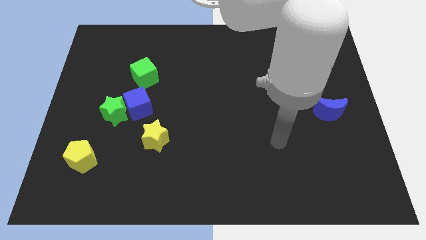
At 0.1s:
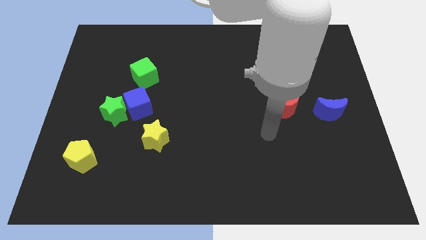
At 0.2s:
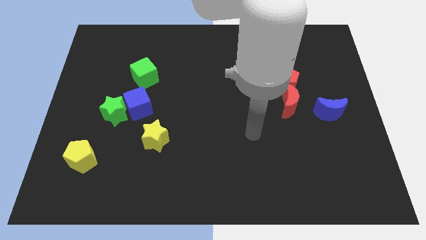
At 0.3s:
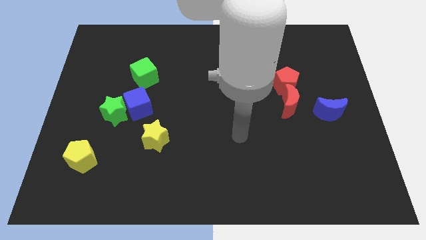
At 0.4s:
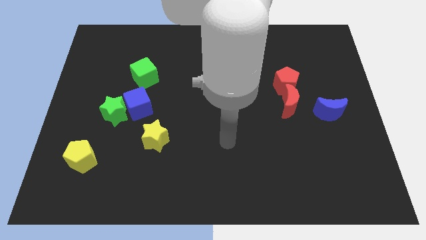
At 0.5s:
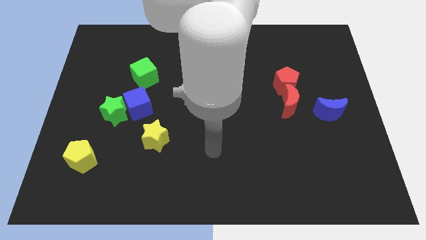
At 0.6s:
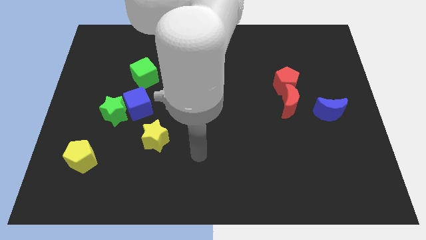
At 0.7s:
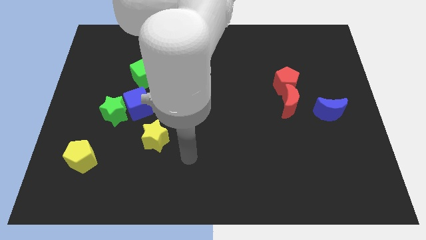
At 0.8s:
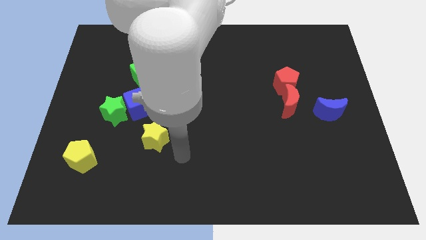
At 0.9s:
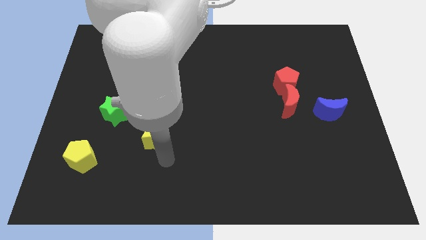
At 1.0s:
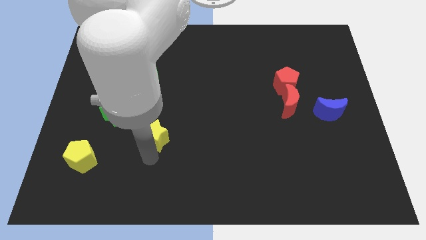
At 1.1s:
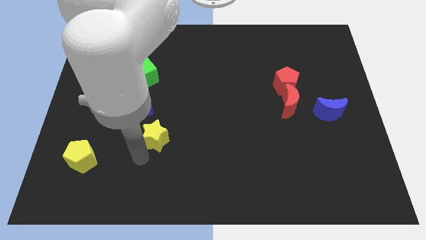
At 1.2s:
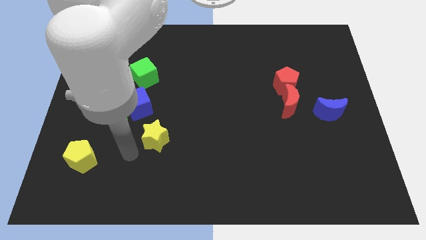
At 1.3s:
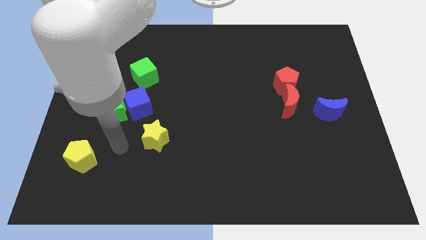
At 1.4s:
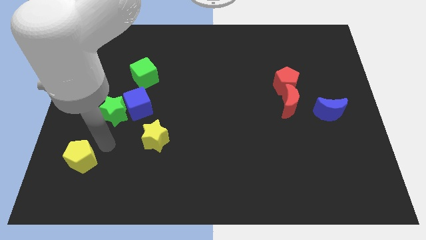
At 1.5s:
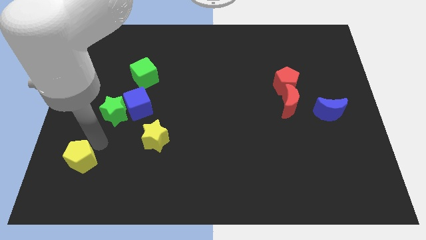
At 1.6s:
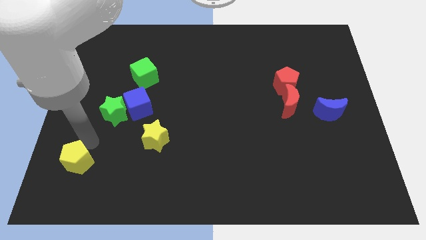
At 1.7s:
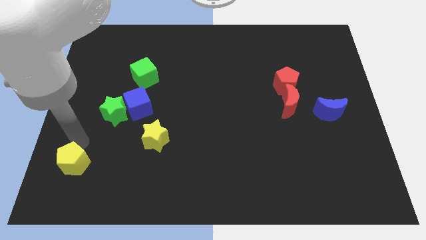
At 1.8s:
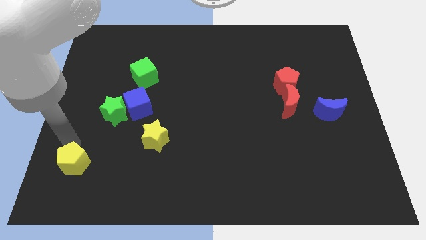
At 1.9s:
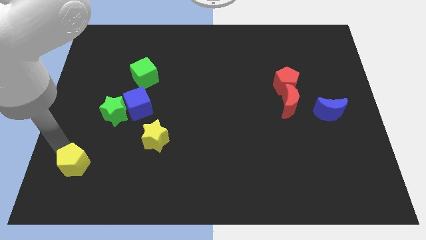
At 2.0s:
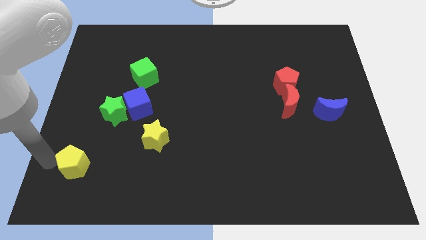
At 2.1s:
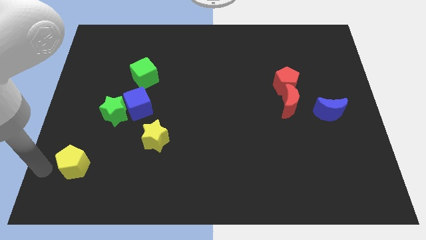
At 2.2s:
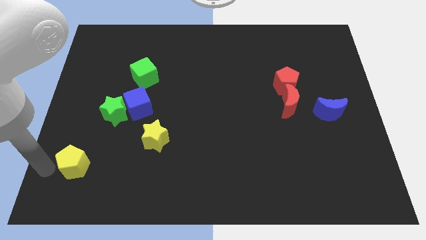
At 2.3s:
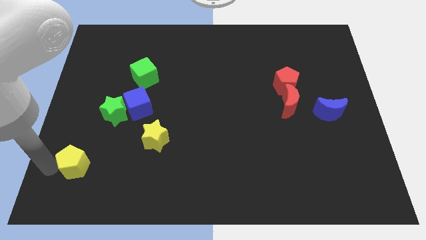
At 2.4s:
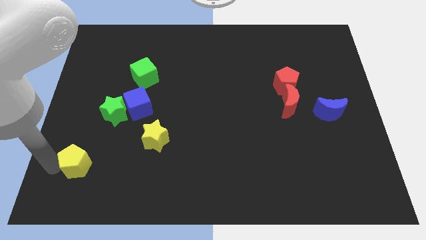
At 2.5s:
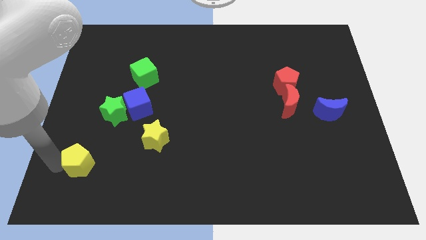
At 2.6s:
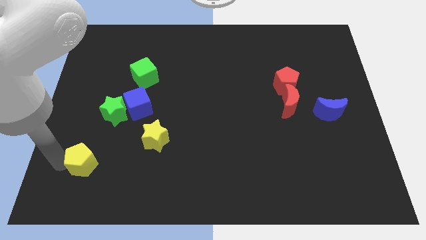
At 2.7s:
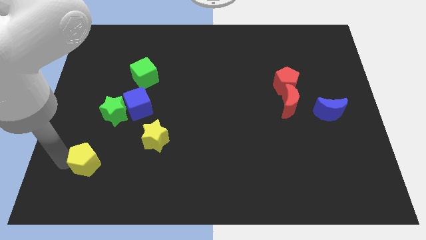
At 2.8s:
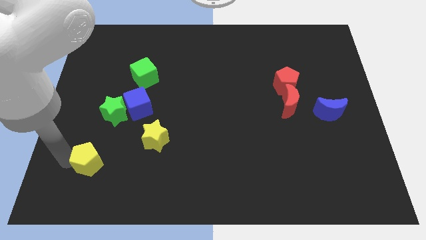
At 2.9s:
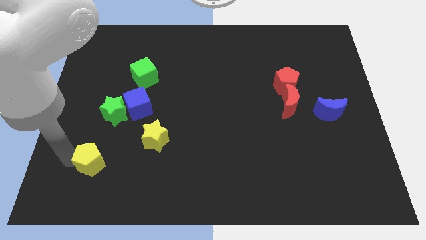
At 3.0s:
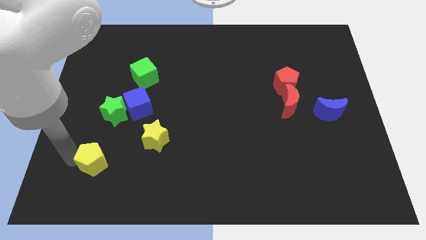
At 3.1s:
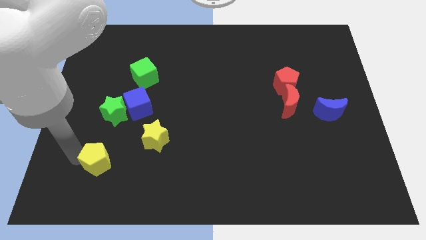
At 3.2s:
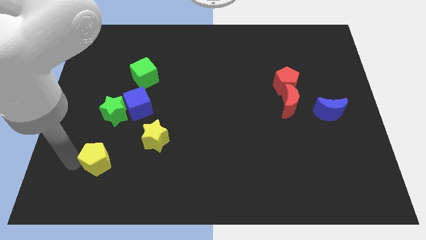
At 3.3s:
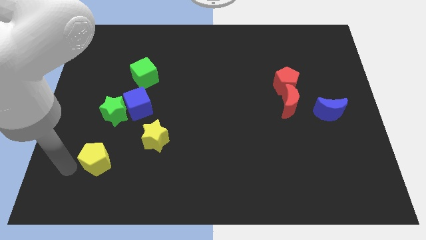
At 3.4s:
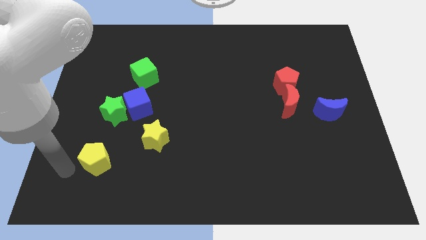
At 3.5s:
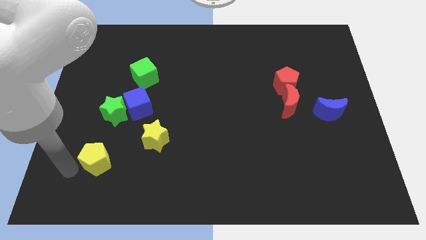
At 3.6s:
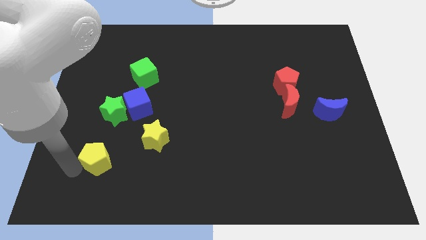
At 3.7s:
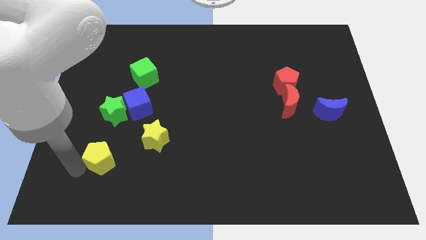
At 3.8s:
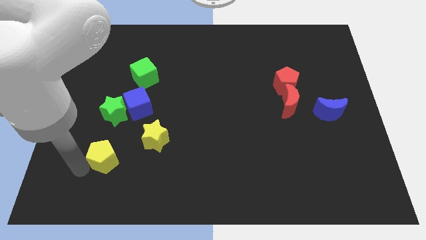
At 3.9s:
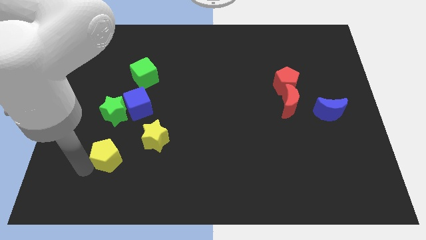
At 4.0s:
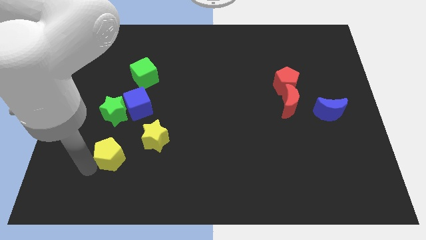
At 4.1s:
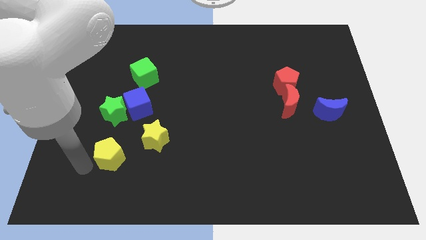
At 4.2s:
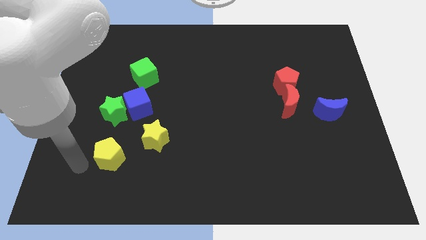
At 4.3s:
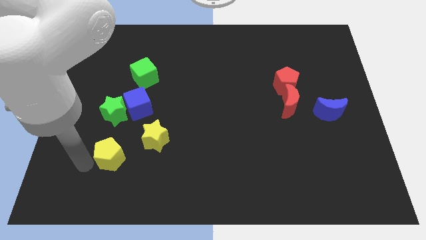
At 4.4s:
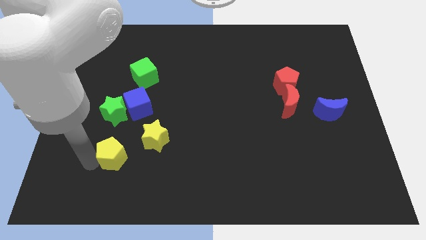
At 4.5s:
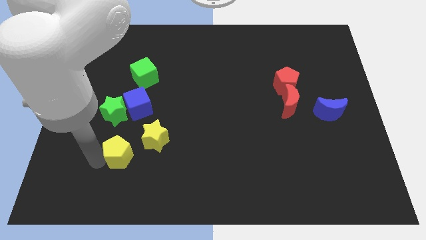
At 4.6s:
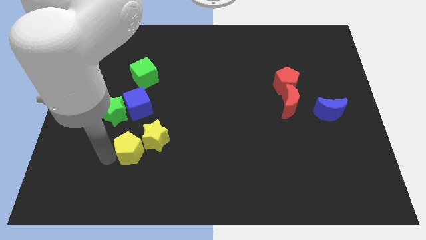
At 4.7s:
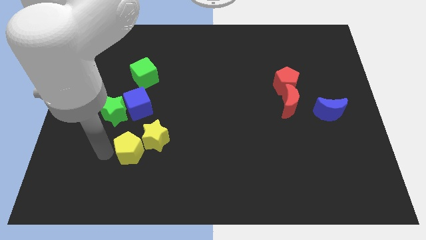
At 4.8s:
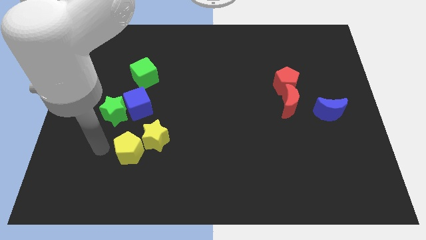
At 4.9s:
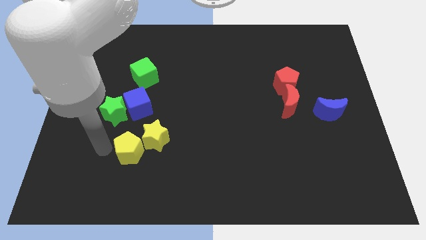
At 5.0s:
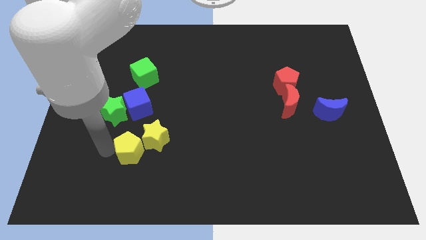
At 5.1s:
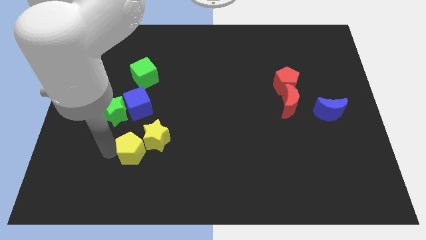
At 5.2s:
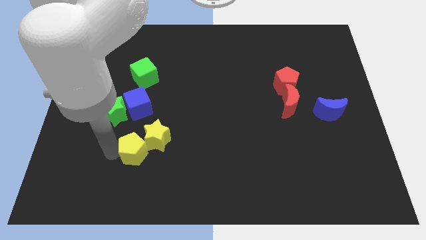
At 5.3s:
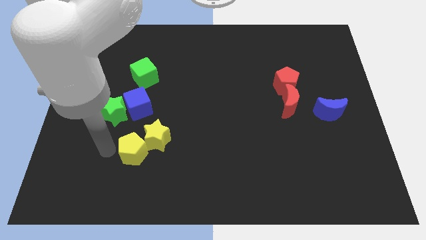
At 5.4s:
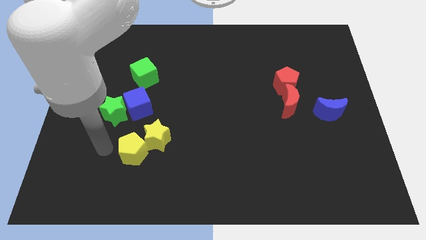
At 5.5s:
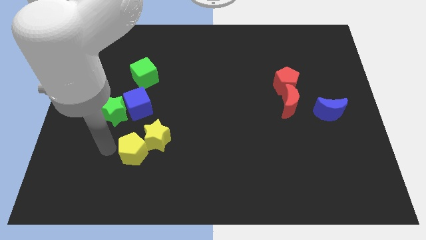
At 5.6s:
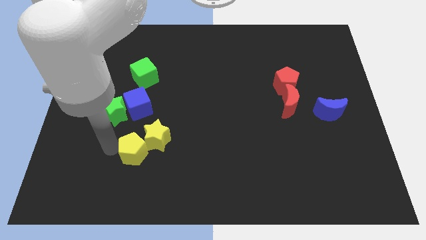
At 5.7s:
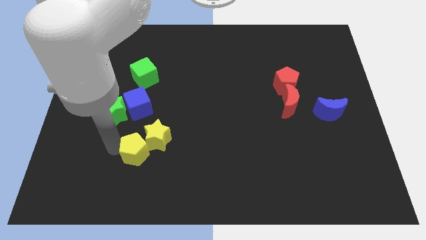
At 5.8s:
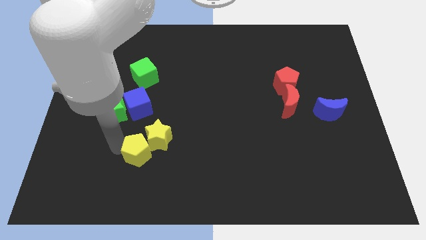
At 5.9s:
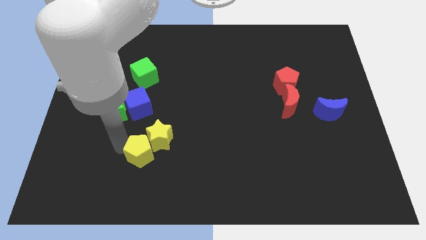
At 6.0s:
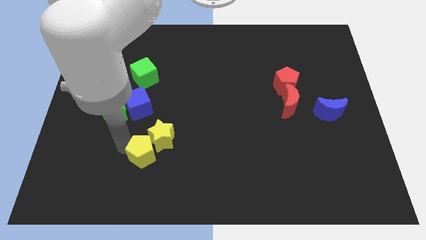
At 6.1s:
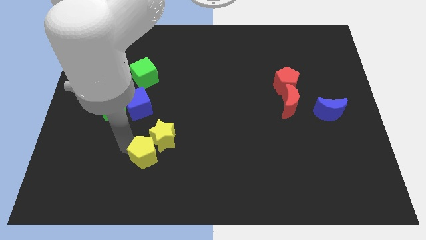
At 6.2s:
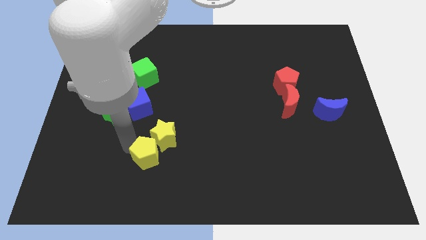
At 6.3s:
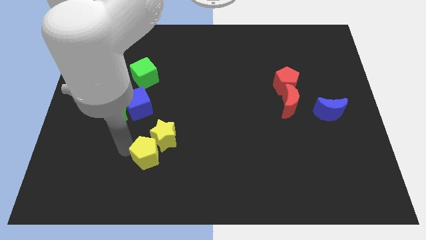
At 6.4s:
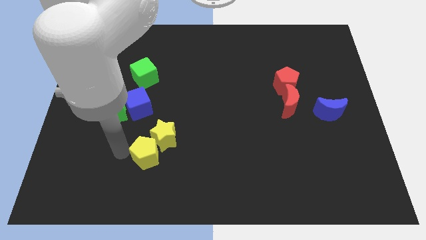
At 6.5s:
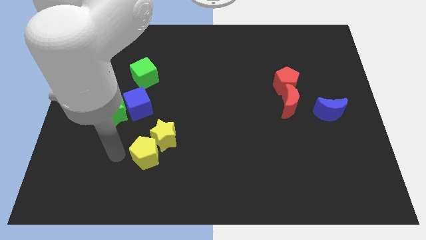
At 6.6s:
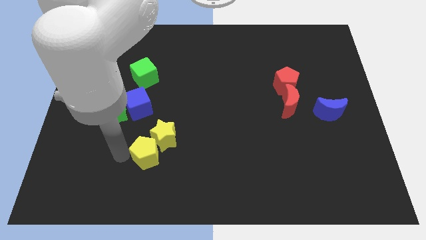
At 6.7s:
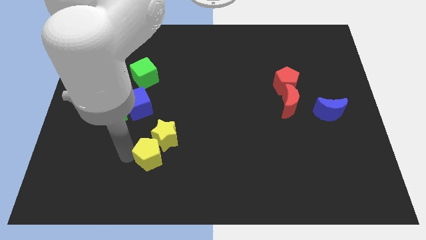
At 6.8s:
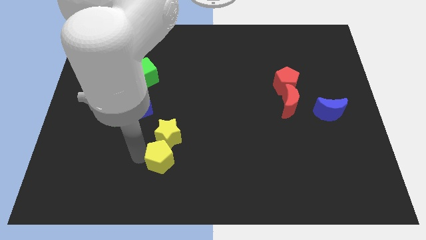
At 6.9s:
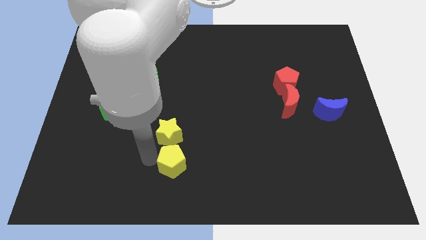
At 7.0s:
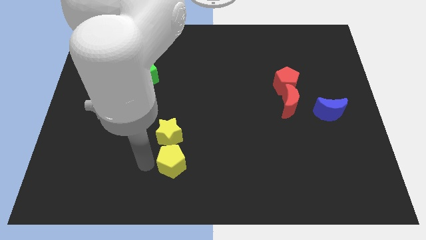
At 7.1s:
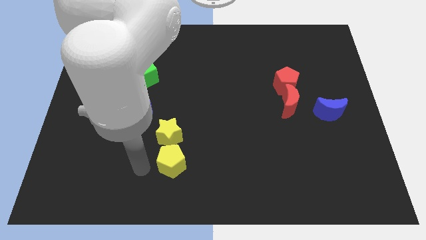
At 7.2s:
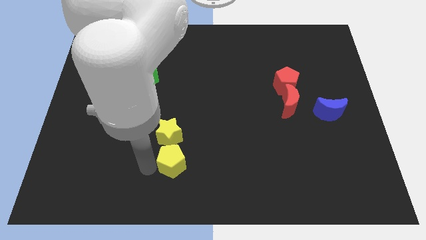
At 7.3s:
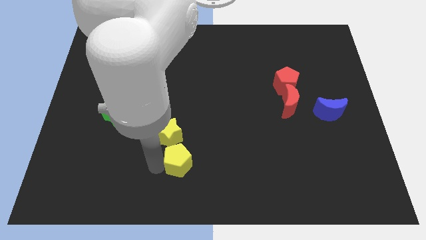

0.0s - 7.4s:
slide the yellow pentagon to the right

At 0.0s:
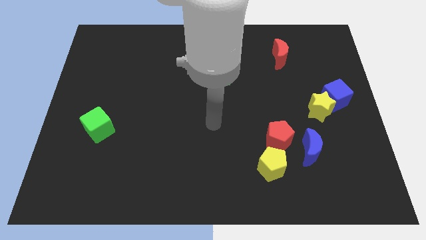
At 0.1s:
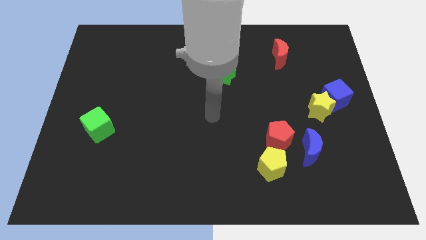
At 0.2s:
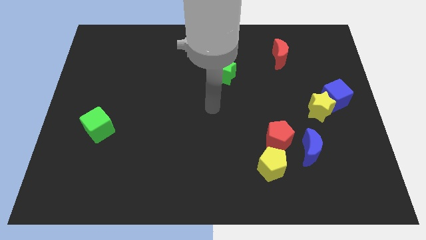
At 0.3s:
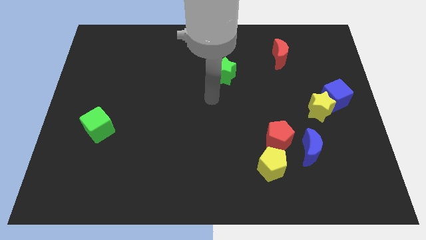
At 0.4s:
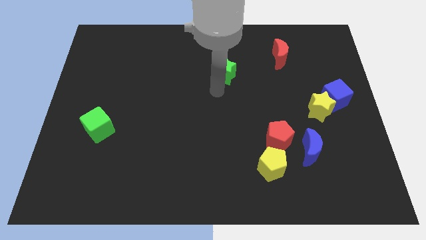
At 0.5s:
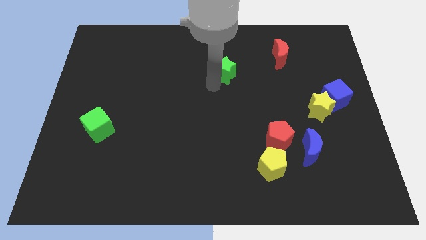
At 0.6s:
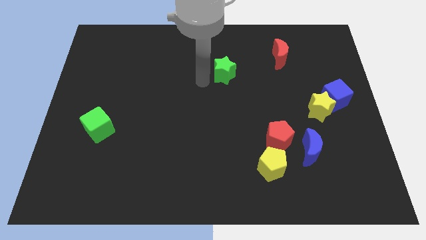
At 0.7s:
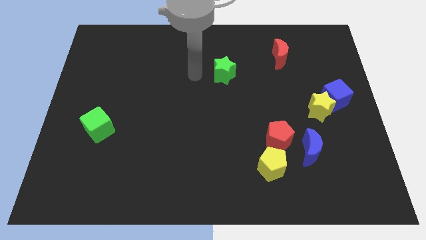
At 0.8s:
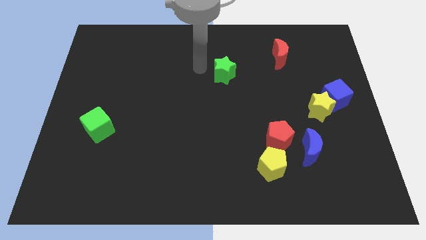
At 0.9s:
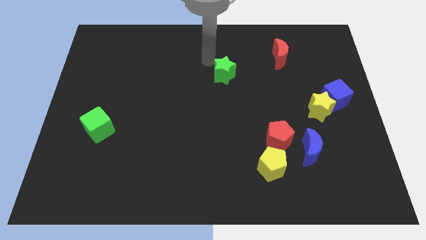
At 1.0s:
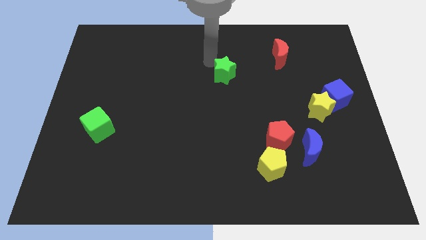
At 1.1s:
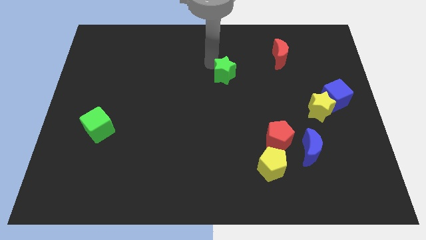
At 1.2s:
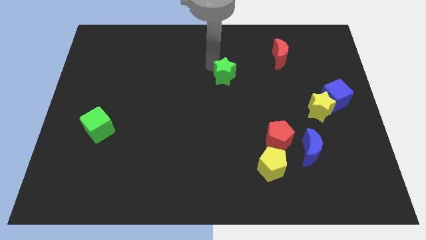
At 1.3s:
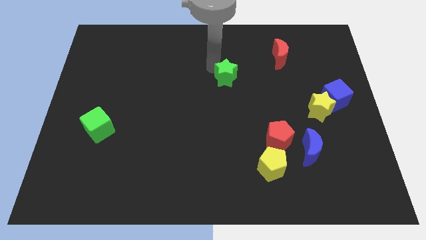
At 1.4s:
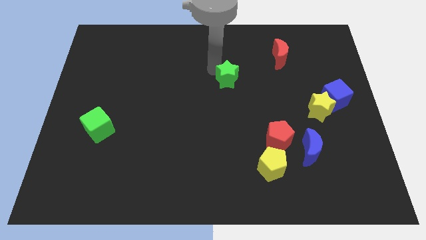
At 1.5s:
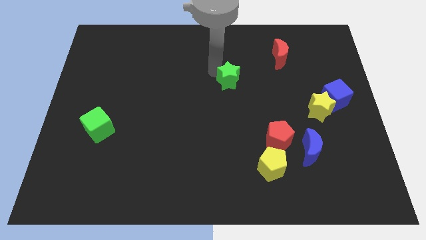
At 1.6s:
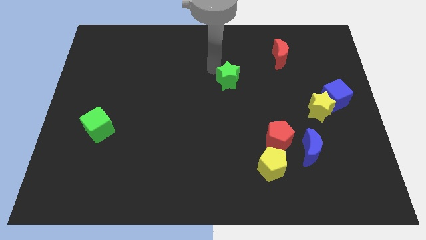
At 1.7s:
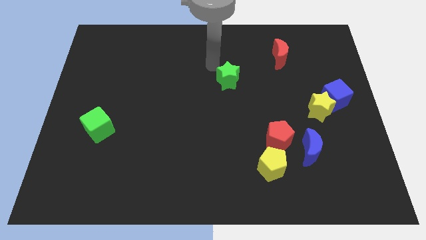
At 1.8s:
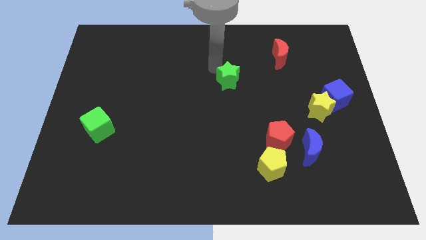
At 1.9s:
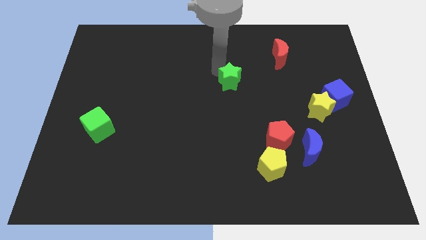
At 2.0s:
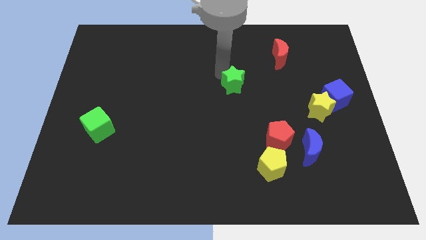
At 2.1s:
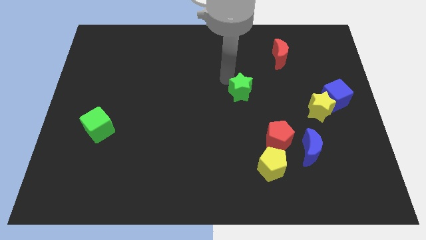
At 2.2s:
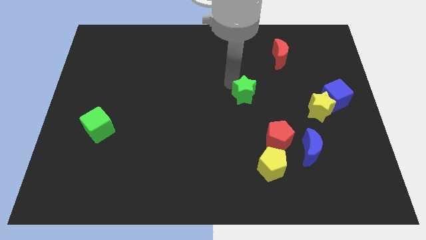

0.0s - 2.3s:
slightly slide the green star diagonally downwards and right
